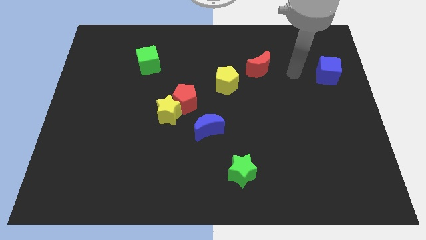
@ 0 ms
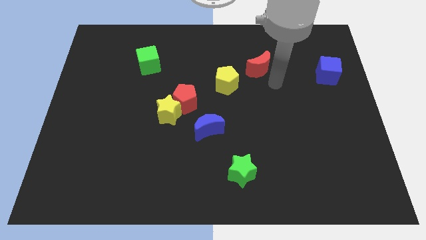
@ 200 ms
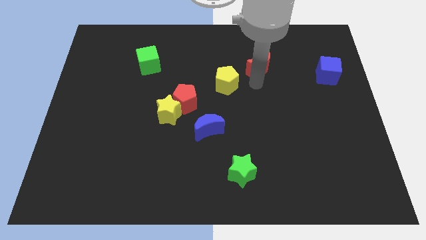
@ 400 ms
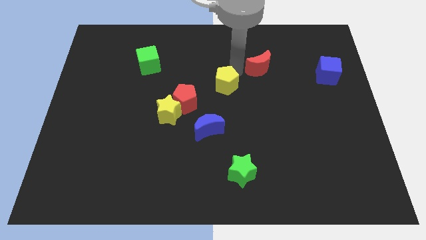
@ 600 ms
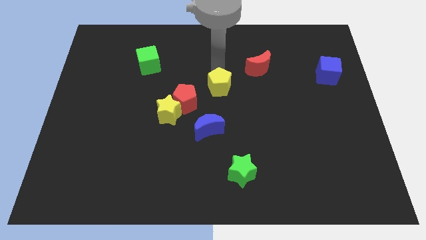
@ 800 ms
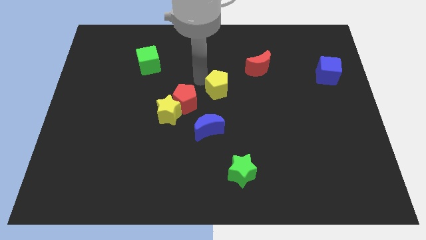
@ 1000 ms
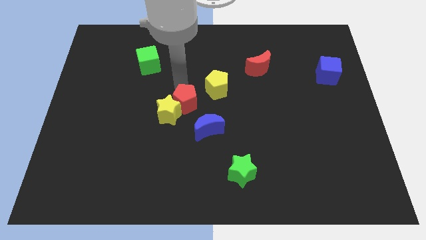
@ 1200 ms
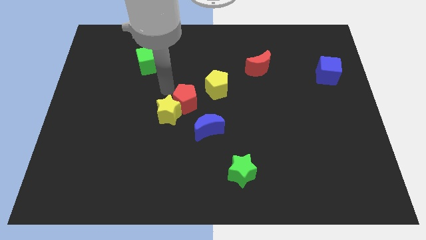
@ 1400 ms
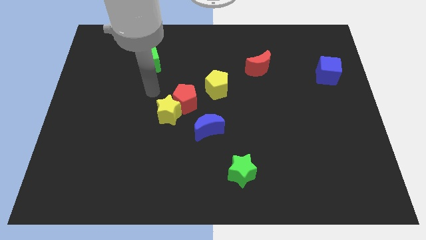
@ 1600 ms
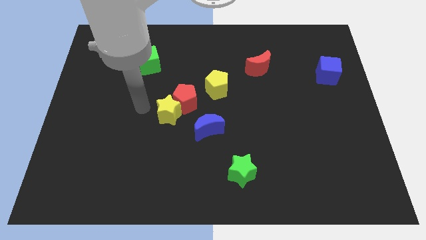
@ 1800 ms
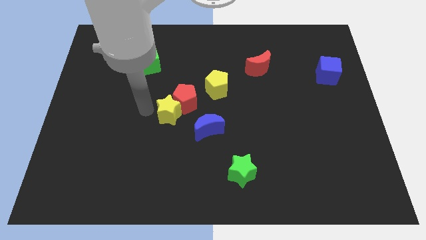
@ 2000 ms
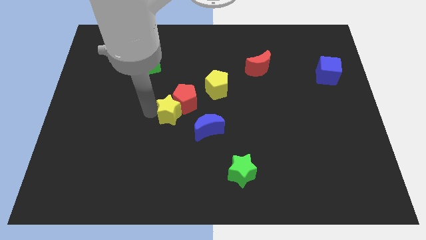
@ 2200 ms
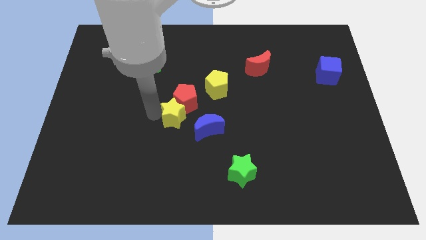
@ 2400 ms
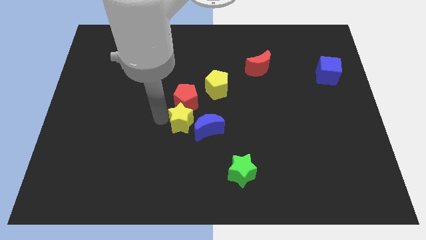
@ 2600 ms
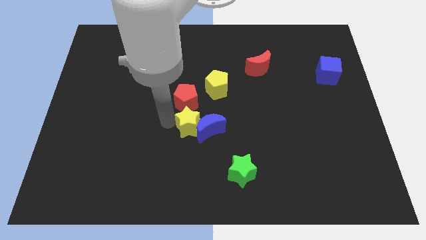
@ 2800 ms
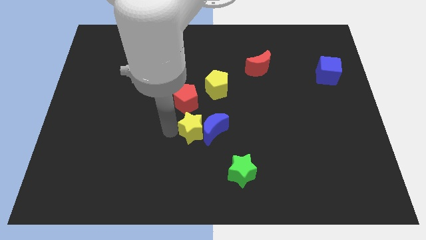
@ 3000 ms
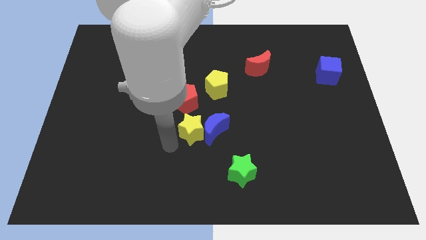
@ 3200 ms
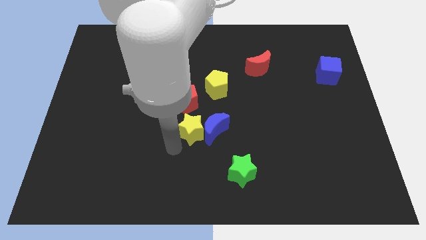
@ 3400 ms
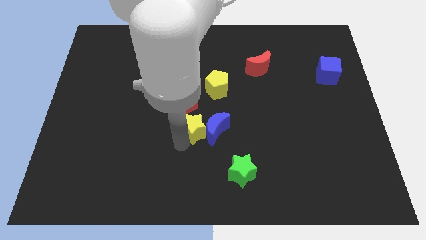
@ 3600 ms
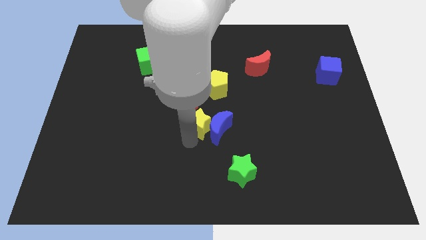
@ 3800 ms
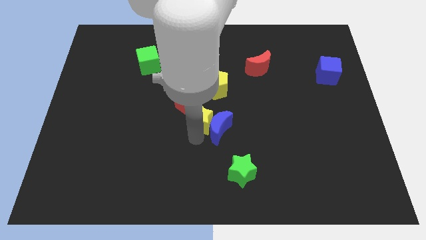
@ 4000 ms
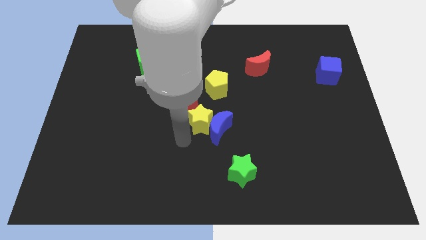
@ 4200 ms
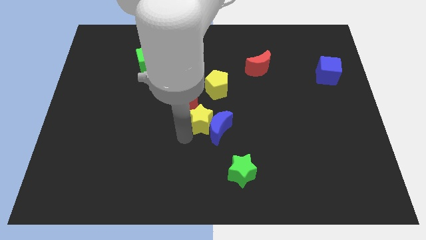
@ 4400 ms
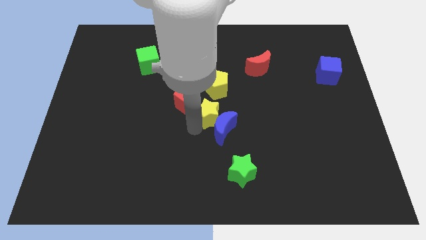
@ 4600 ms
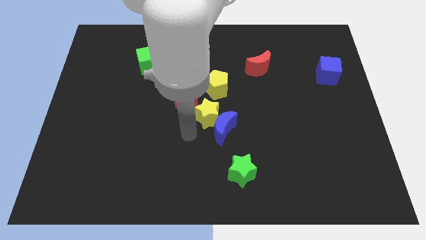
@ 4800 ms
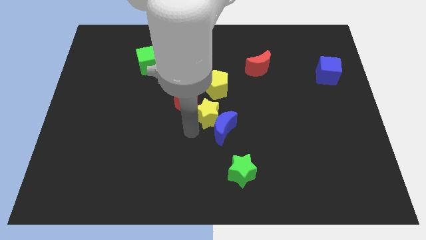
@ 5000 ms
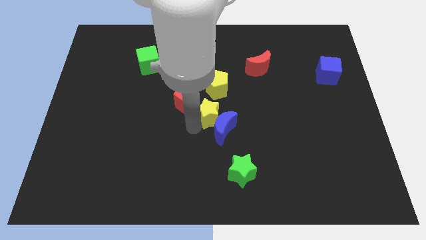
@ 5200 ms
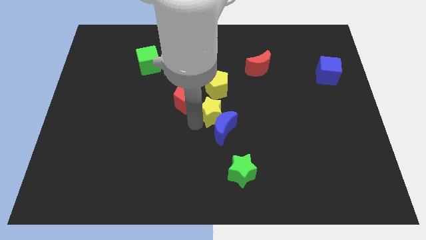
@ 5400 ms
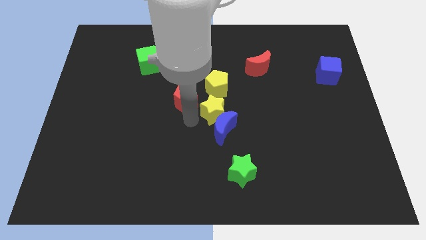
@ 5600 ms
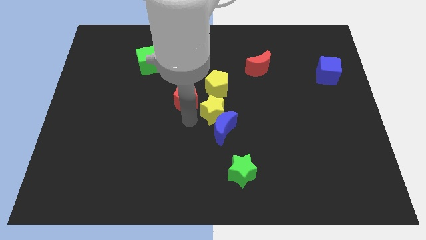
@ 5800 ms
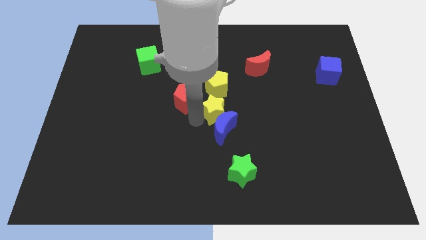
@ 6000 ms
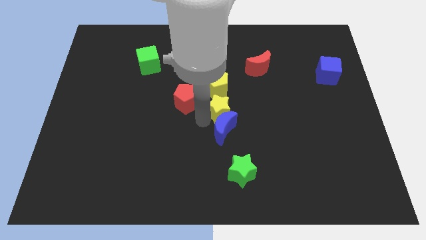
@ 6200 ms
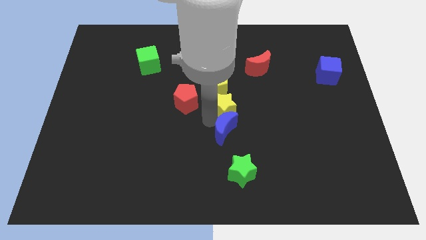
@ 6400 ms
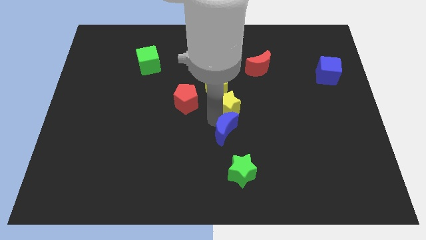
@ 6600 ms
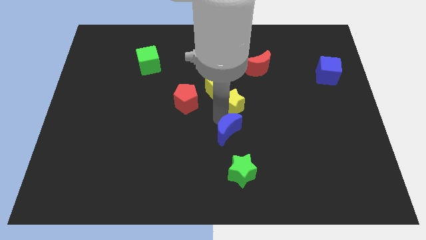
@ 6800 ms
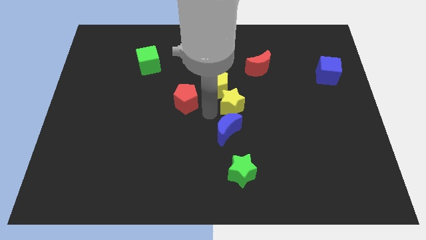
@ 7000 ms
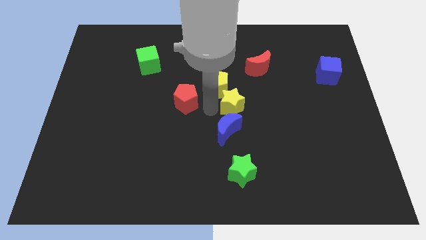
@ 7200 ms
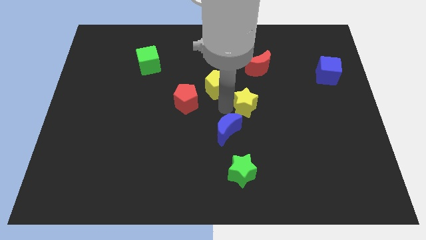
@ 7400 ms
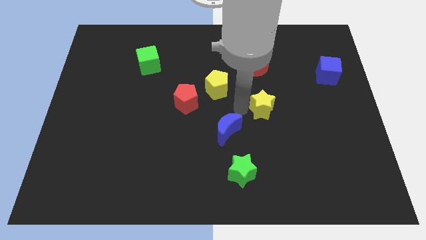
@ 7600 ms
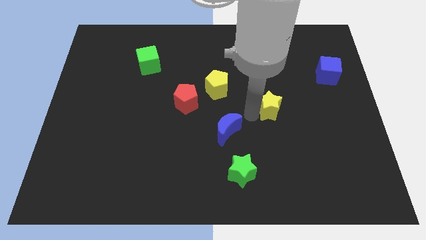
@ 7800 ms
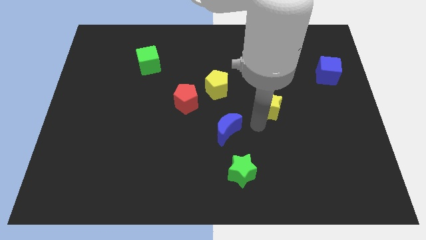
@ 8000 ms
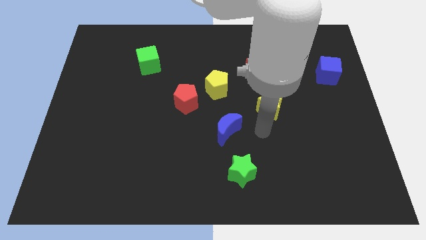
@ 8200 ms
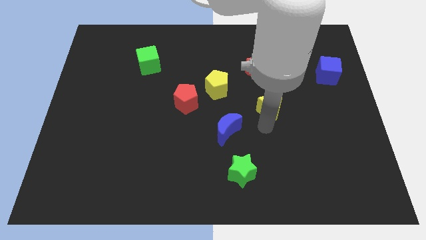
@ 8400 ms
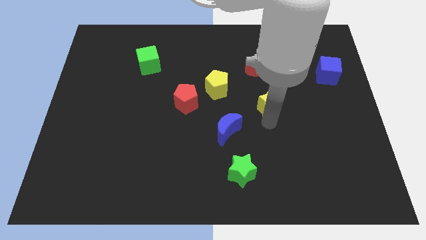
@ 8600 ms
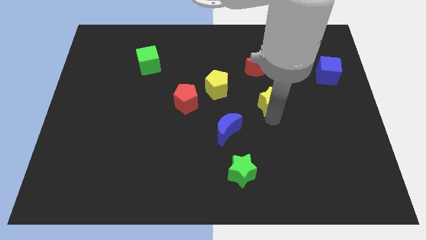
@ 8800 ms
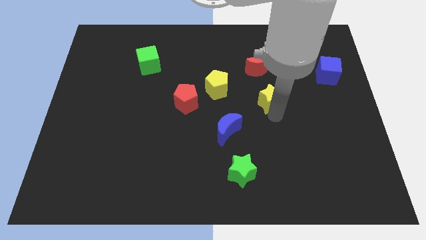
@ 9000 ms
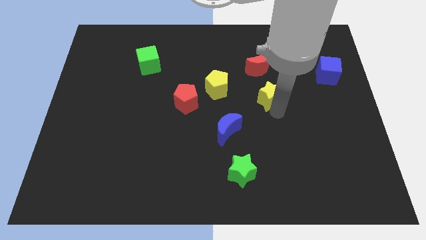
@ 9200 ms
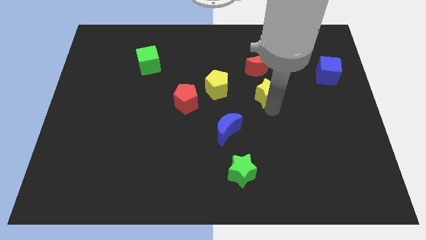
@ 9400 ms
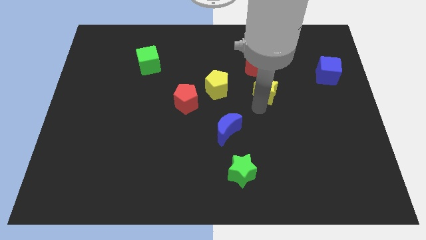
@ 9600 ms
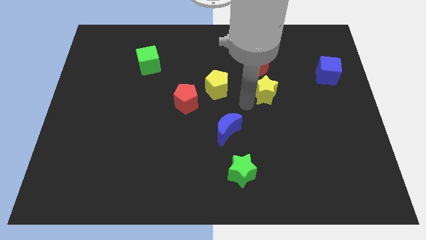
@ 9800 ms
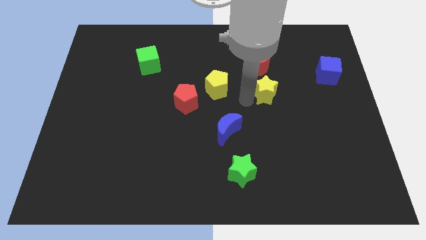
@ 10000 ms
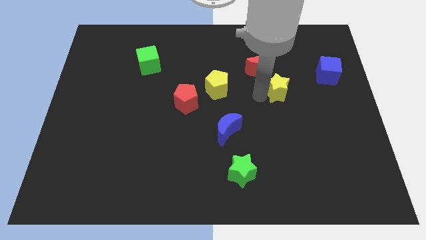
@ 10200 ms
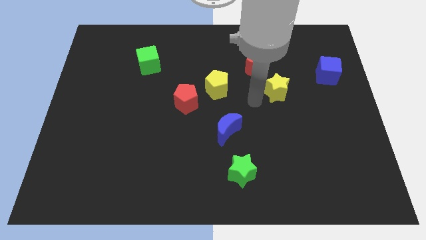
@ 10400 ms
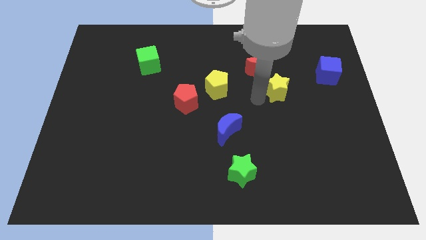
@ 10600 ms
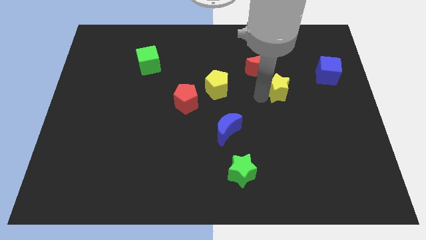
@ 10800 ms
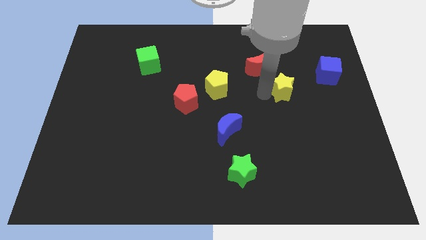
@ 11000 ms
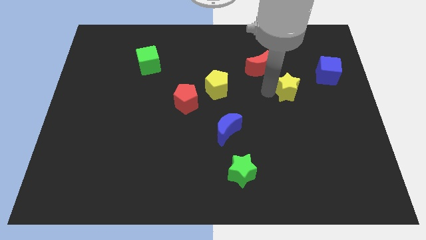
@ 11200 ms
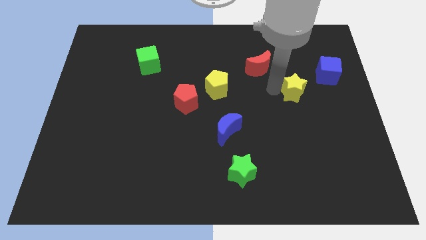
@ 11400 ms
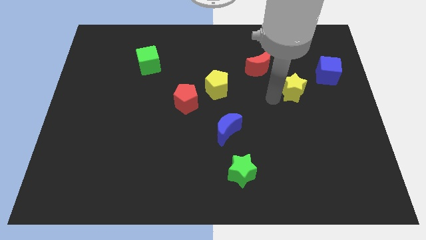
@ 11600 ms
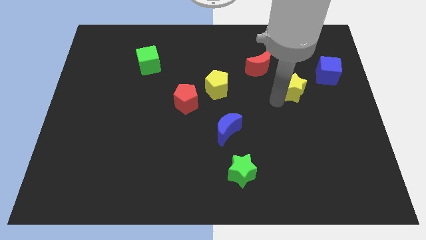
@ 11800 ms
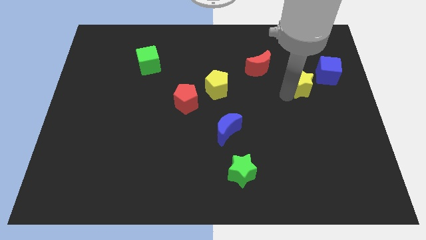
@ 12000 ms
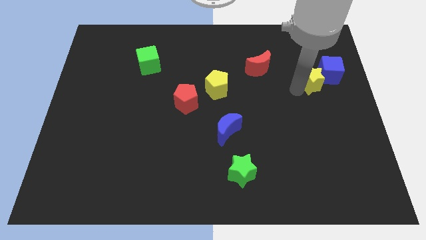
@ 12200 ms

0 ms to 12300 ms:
put the yellow star towards the blue cube

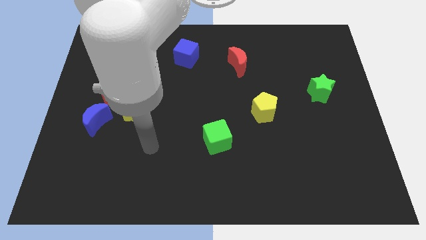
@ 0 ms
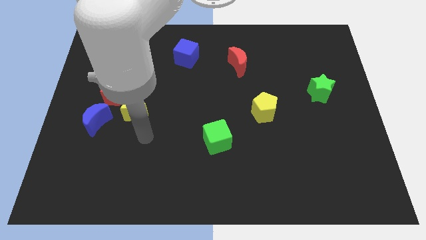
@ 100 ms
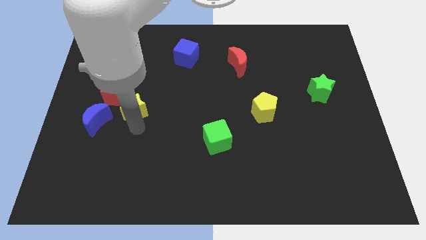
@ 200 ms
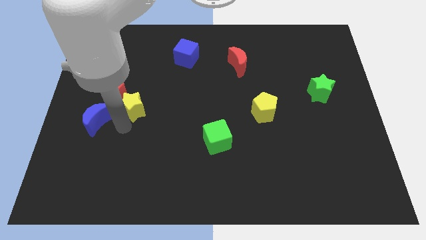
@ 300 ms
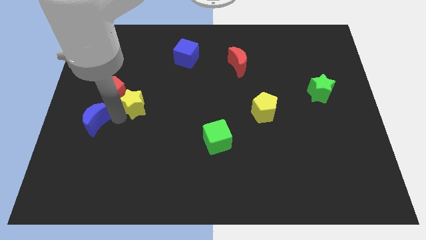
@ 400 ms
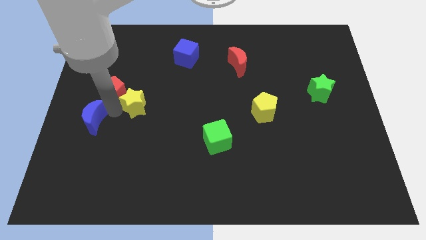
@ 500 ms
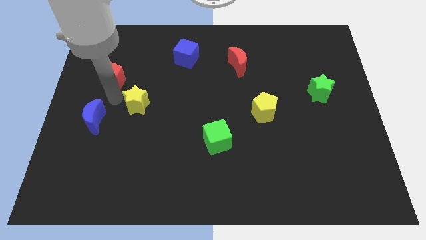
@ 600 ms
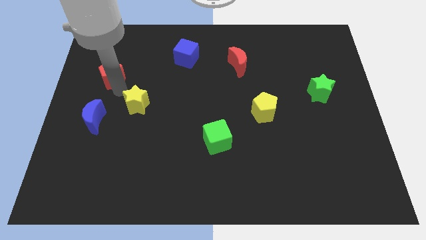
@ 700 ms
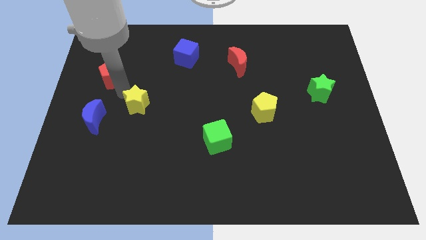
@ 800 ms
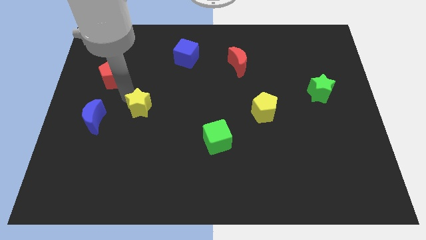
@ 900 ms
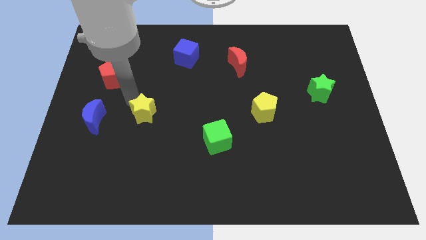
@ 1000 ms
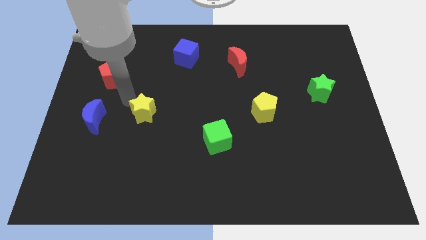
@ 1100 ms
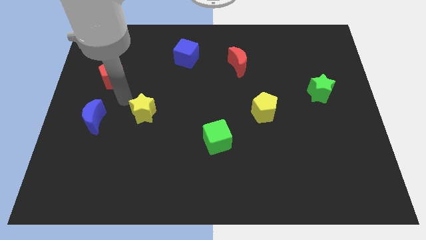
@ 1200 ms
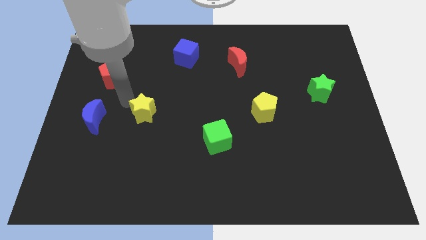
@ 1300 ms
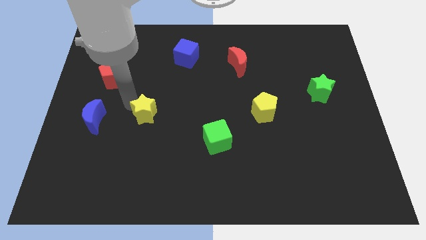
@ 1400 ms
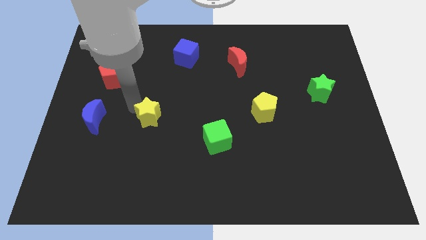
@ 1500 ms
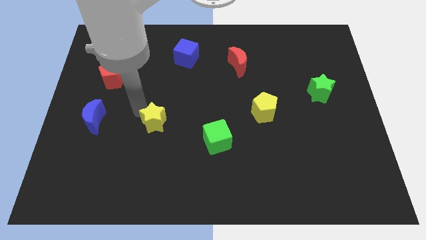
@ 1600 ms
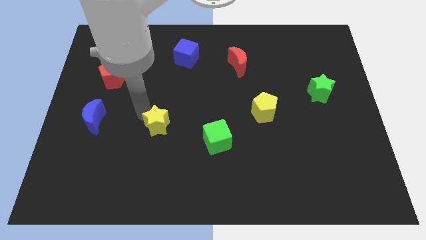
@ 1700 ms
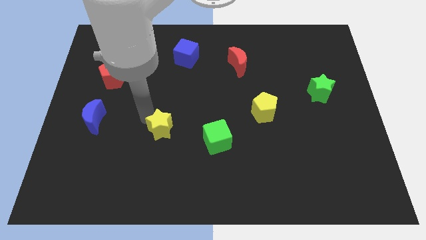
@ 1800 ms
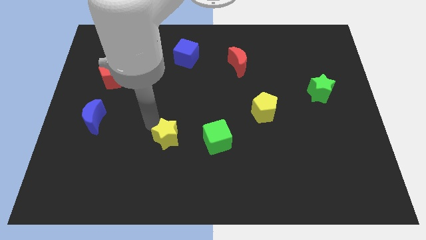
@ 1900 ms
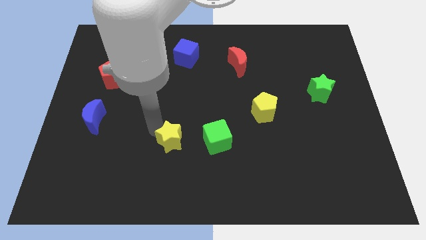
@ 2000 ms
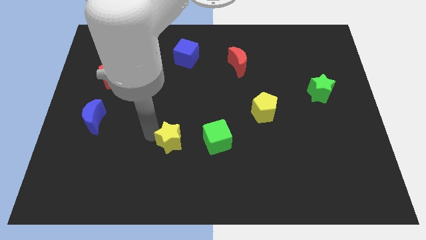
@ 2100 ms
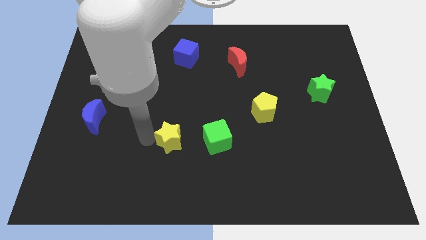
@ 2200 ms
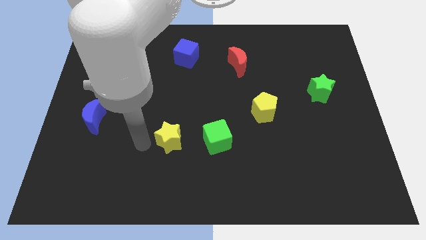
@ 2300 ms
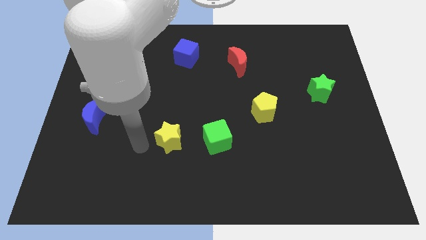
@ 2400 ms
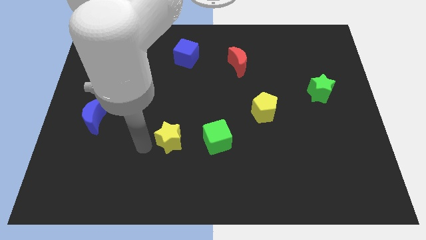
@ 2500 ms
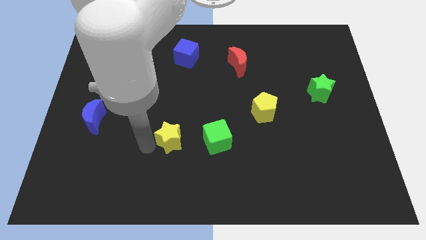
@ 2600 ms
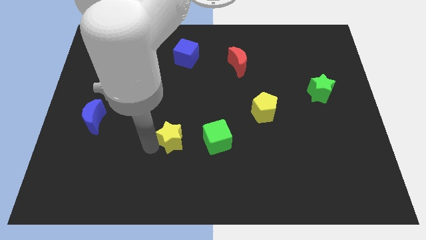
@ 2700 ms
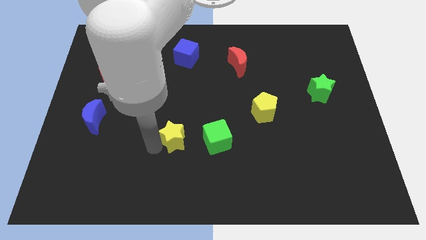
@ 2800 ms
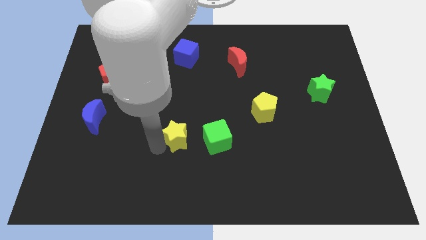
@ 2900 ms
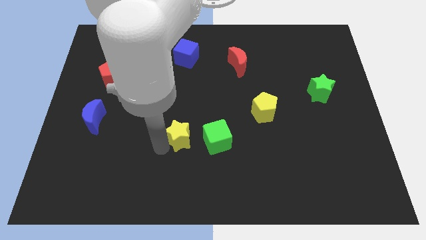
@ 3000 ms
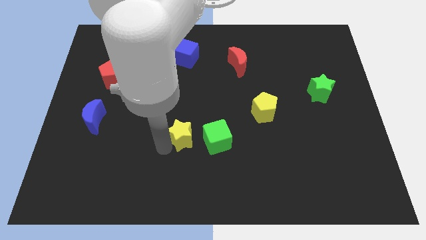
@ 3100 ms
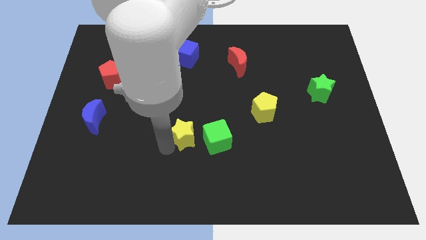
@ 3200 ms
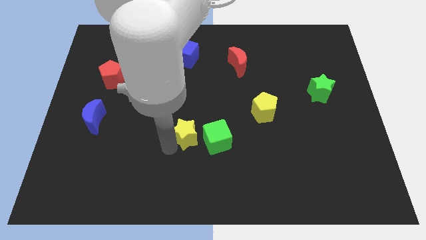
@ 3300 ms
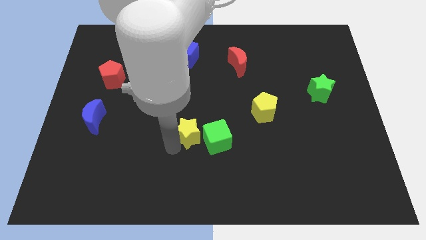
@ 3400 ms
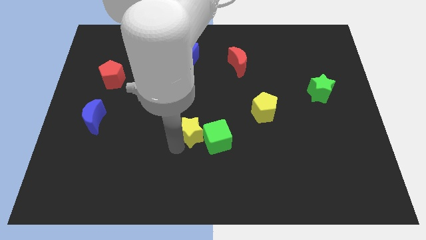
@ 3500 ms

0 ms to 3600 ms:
move the yellow star to the green cube
